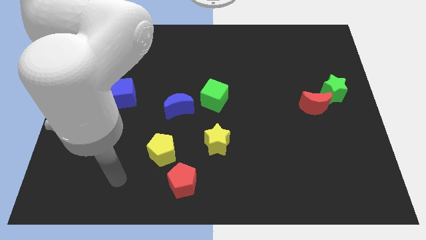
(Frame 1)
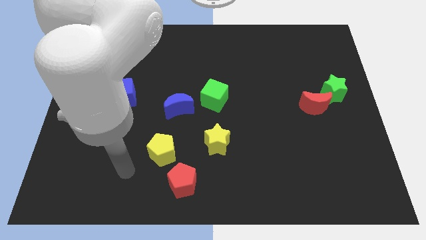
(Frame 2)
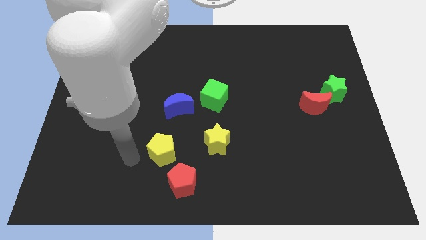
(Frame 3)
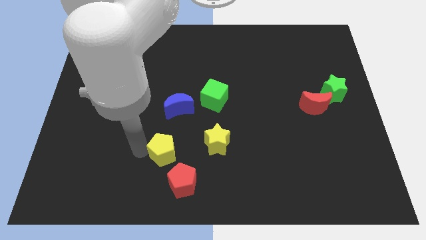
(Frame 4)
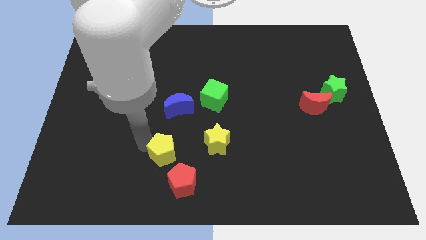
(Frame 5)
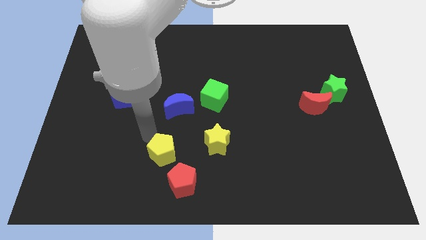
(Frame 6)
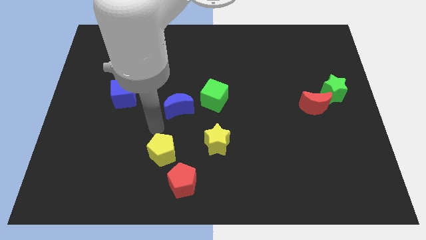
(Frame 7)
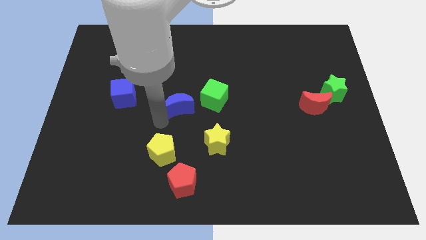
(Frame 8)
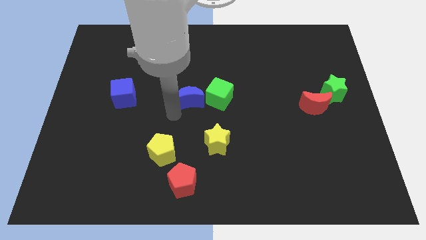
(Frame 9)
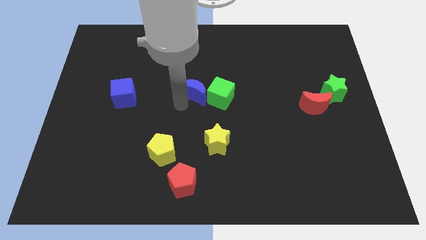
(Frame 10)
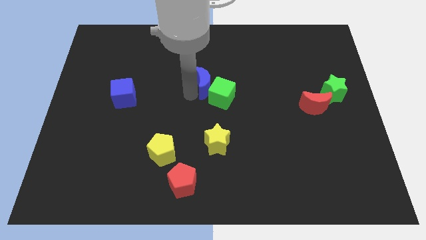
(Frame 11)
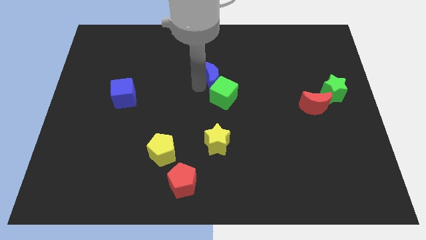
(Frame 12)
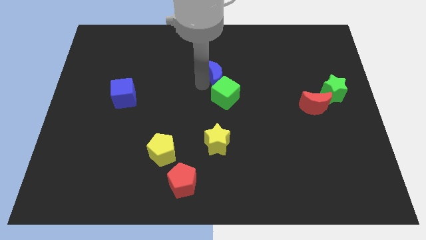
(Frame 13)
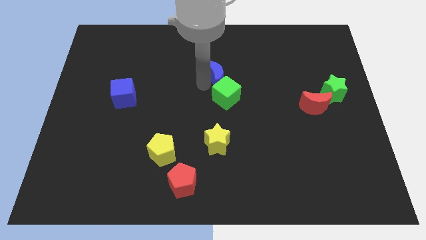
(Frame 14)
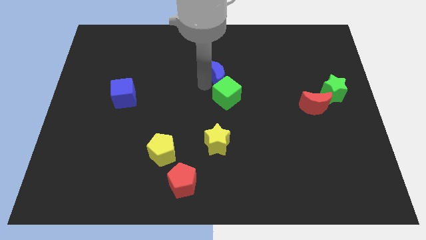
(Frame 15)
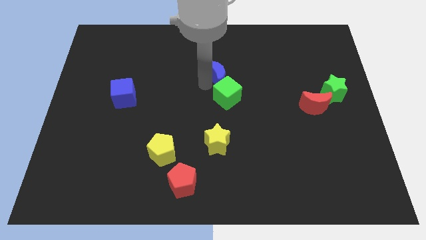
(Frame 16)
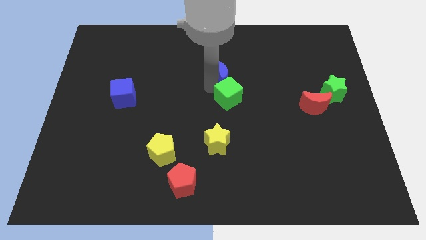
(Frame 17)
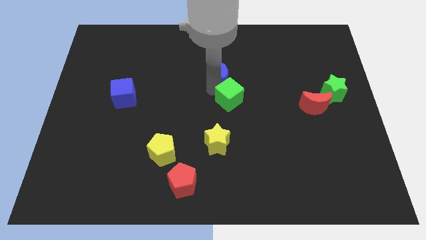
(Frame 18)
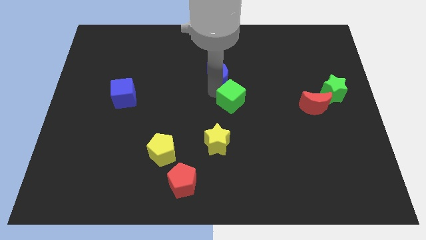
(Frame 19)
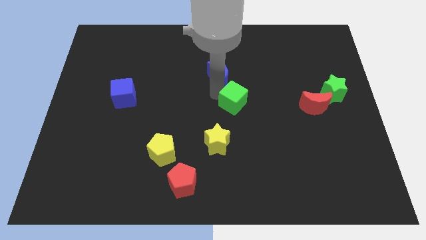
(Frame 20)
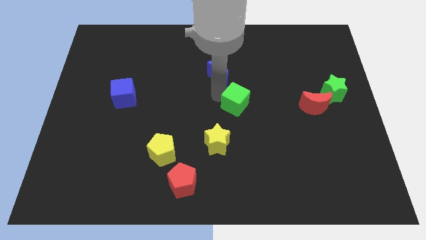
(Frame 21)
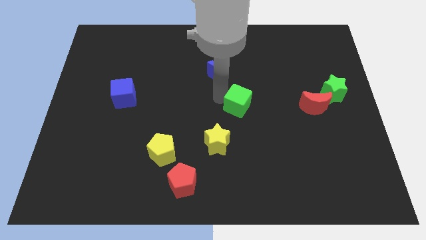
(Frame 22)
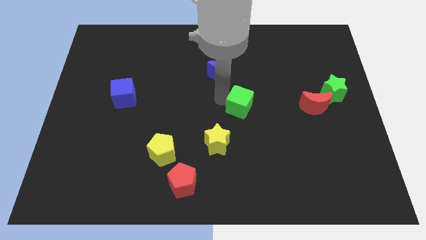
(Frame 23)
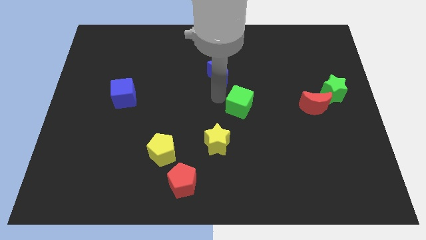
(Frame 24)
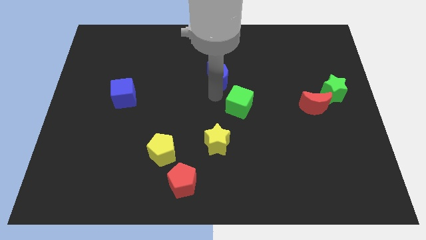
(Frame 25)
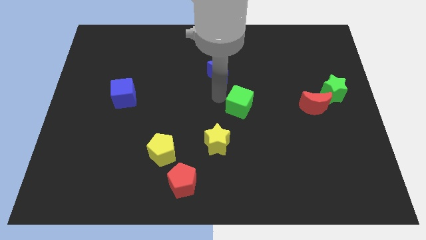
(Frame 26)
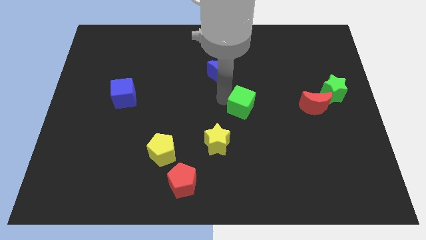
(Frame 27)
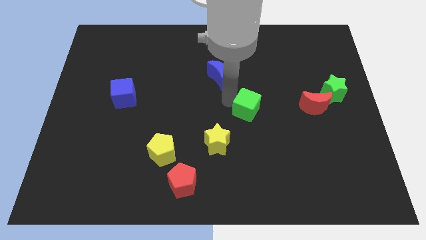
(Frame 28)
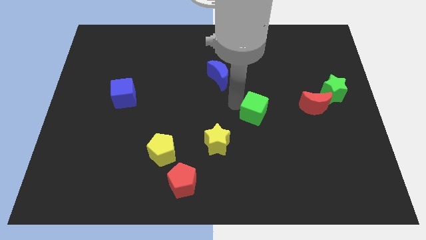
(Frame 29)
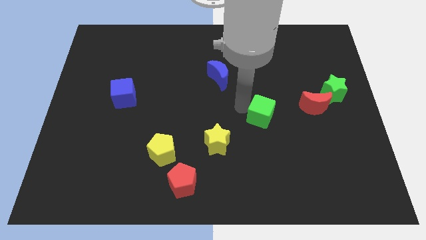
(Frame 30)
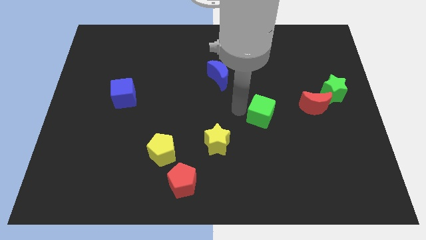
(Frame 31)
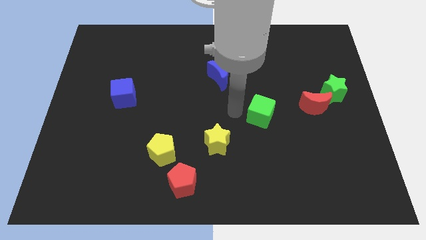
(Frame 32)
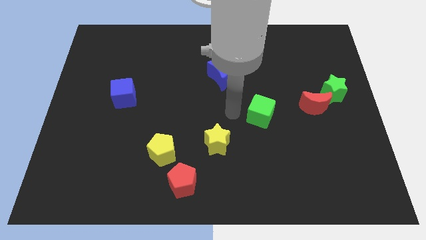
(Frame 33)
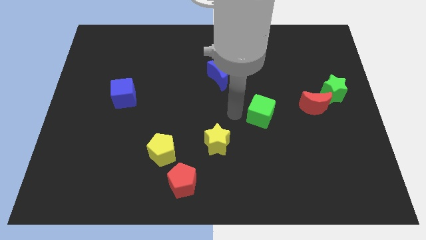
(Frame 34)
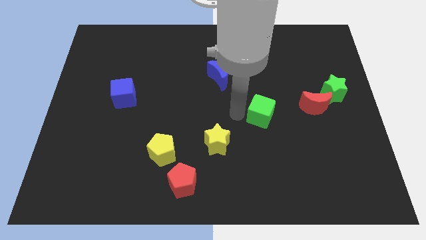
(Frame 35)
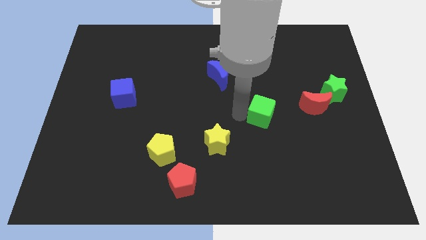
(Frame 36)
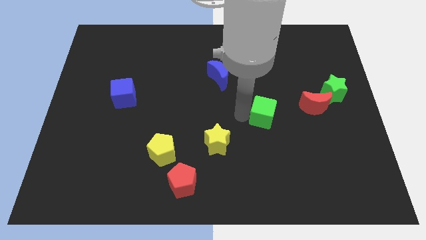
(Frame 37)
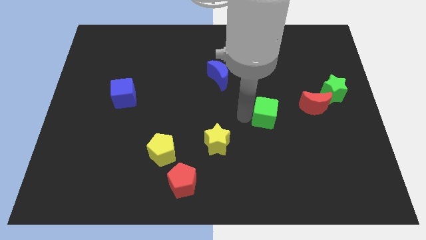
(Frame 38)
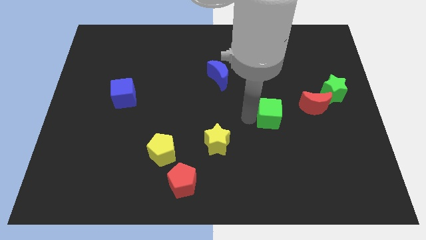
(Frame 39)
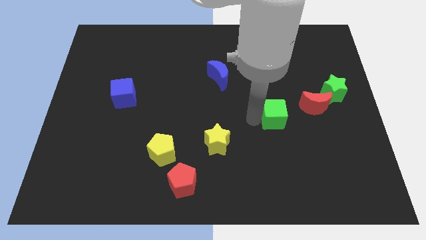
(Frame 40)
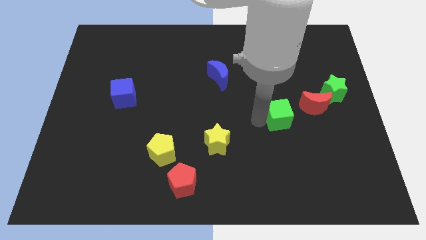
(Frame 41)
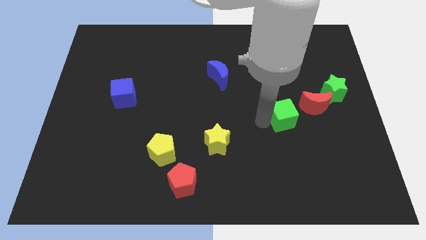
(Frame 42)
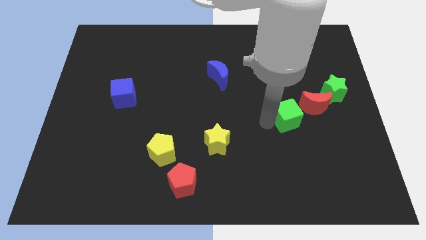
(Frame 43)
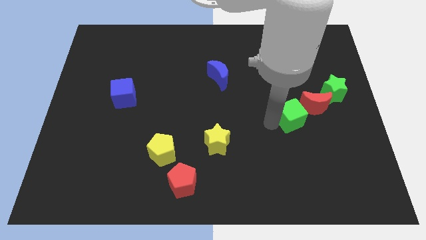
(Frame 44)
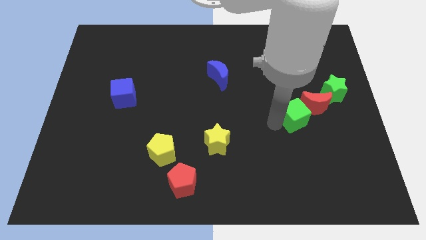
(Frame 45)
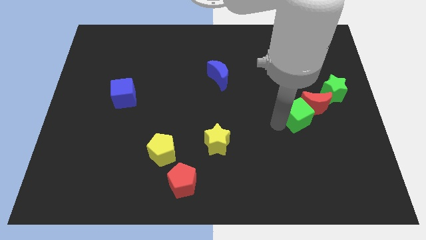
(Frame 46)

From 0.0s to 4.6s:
put the green cube close to the red moon

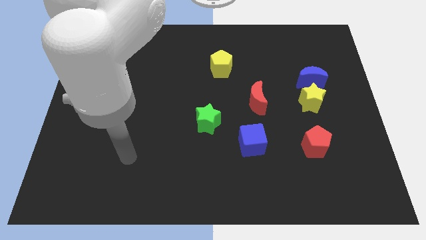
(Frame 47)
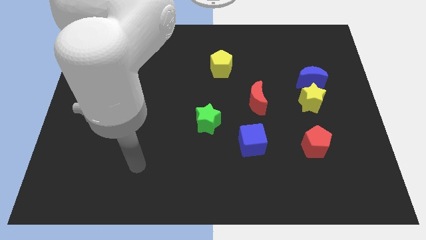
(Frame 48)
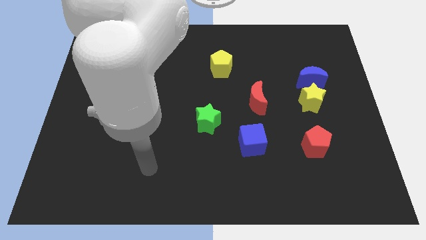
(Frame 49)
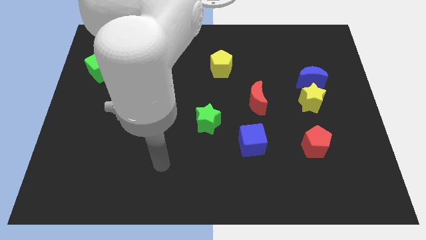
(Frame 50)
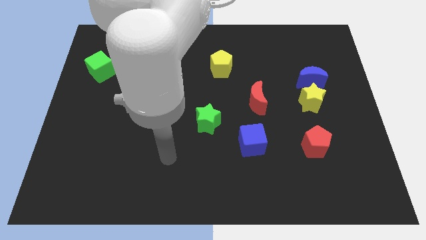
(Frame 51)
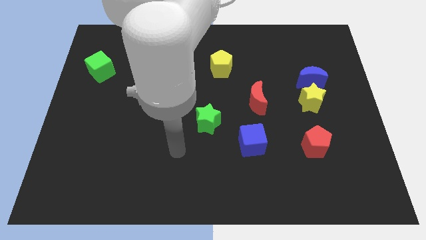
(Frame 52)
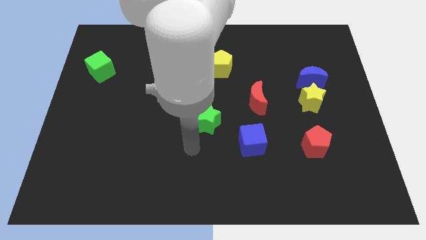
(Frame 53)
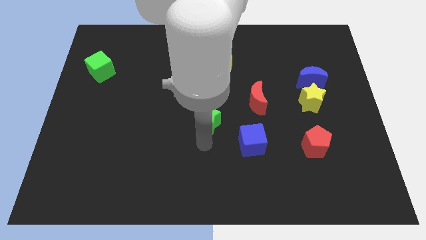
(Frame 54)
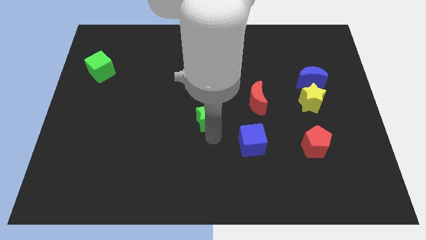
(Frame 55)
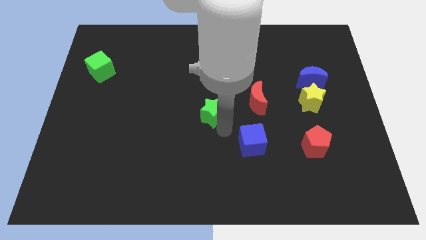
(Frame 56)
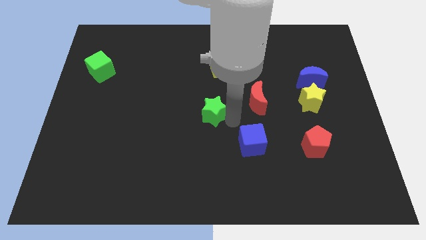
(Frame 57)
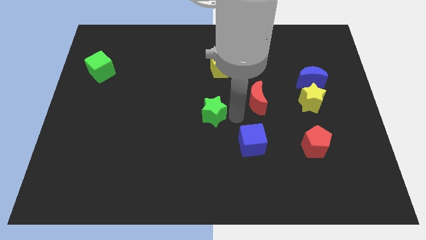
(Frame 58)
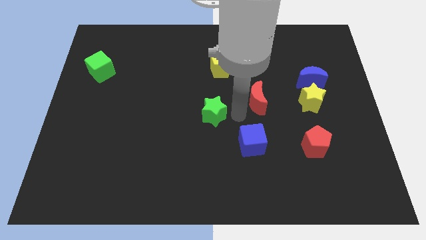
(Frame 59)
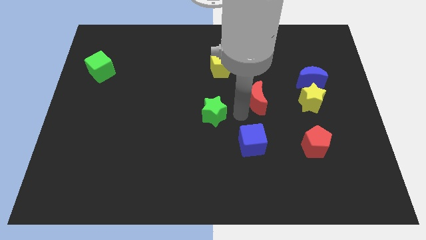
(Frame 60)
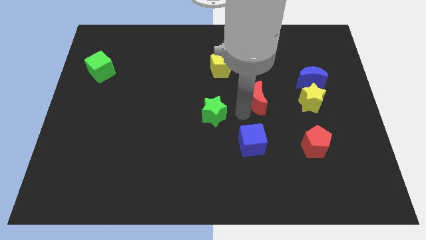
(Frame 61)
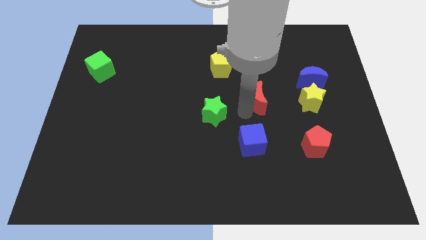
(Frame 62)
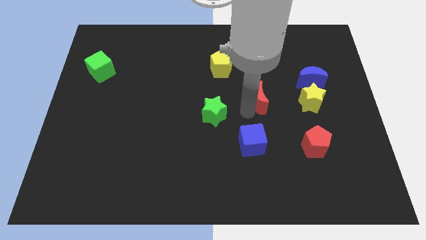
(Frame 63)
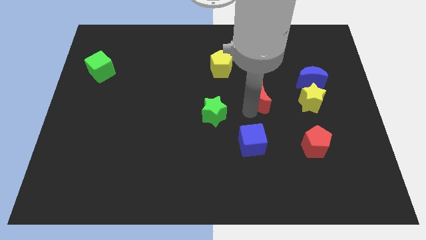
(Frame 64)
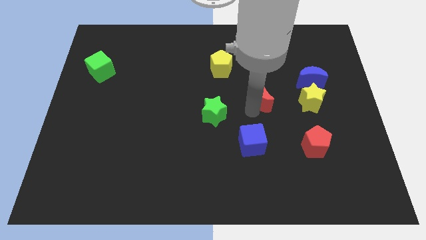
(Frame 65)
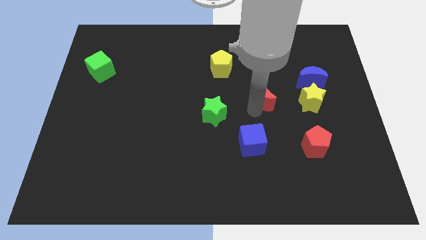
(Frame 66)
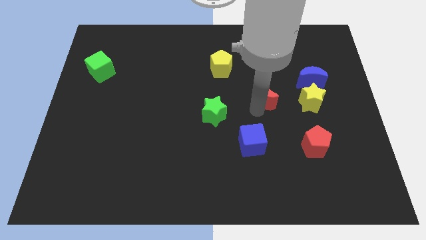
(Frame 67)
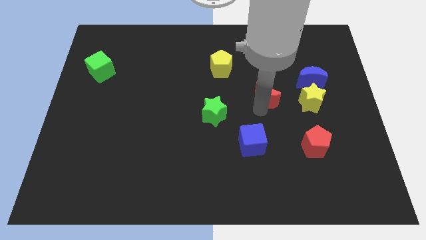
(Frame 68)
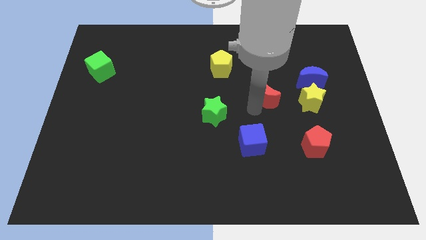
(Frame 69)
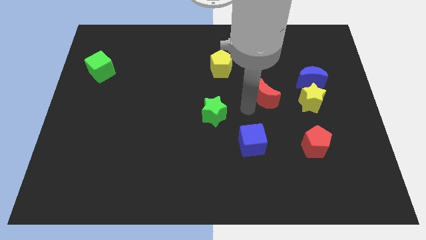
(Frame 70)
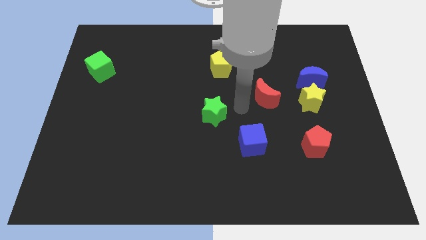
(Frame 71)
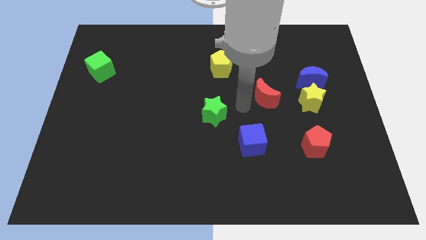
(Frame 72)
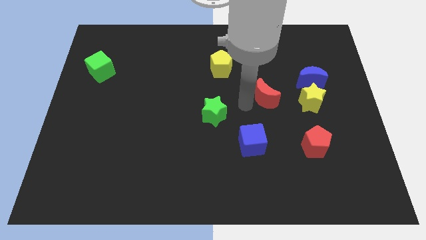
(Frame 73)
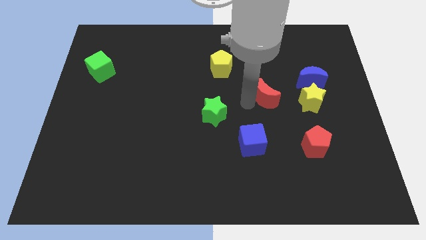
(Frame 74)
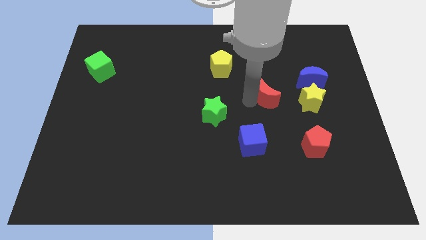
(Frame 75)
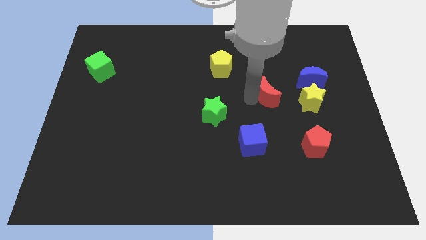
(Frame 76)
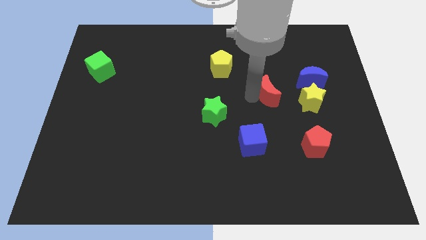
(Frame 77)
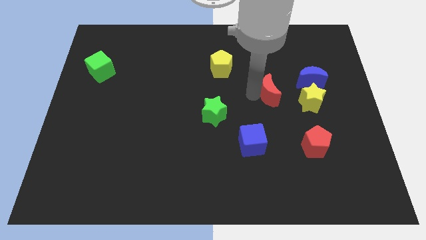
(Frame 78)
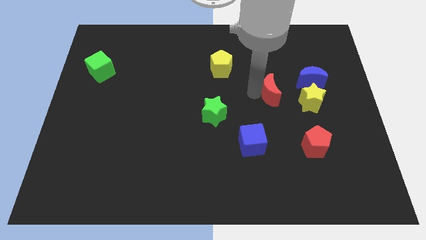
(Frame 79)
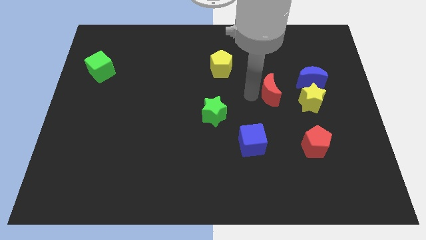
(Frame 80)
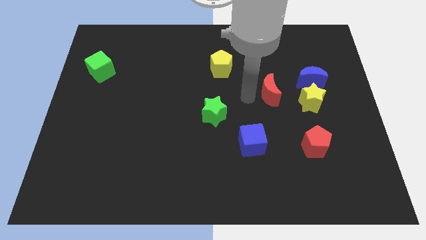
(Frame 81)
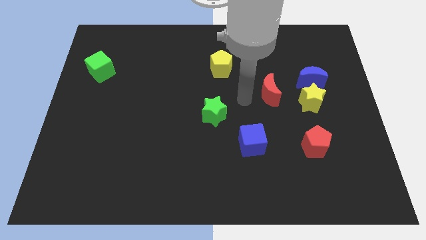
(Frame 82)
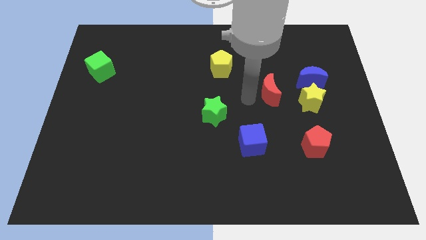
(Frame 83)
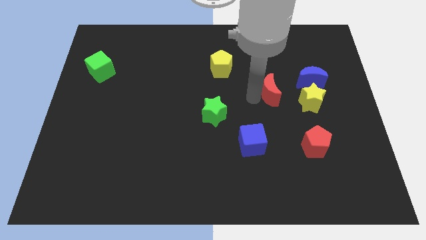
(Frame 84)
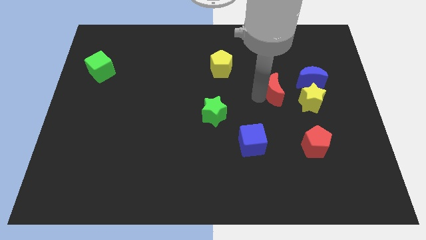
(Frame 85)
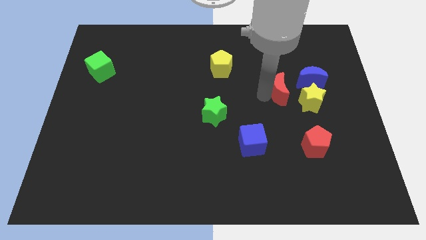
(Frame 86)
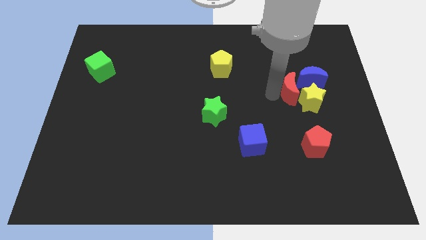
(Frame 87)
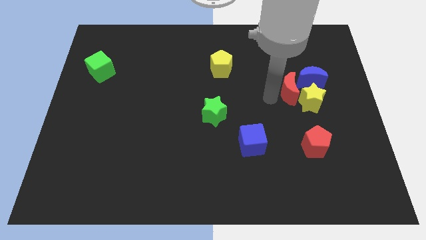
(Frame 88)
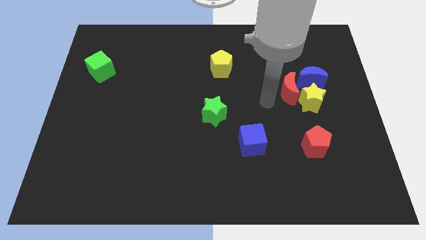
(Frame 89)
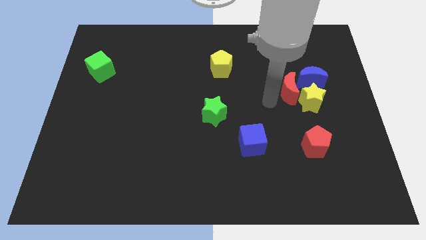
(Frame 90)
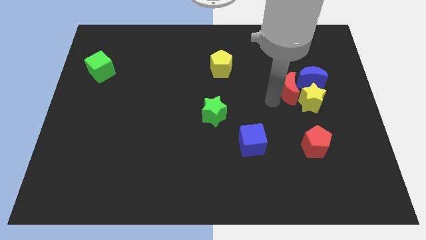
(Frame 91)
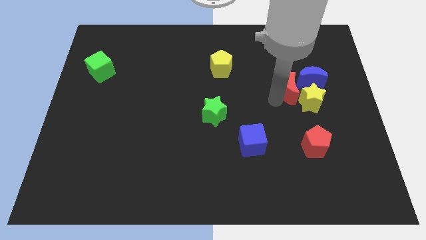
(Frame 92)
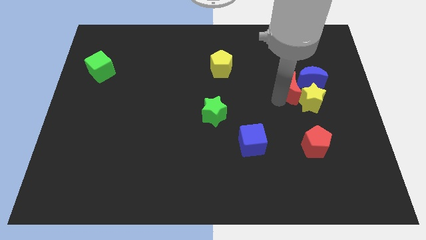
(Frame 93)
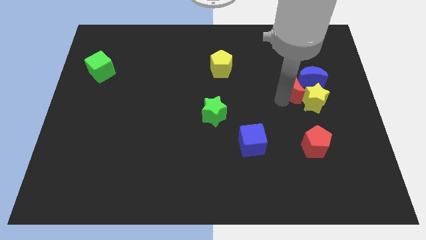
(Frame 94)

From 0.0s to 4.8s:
move the red moon towards the blue moon
